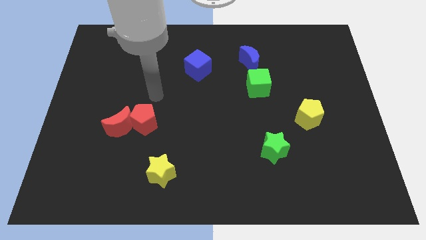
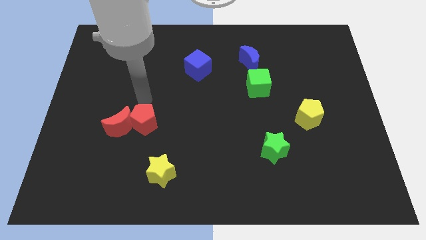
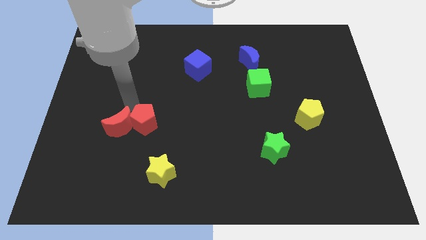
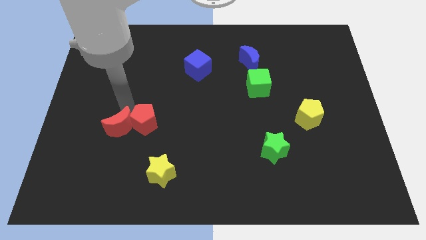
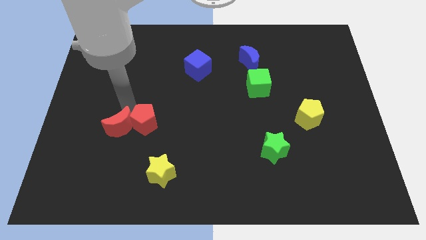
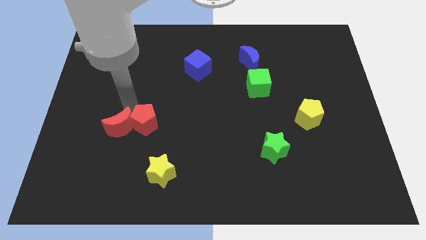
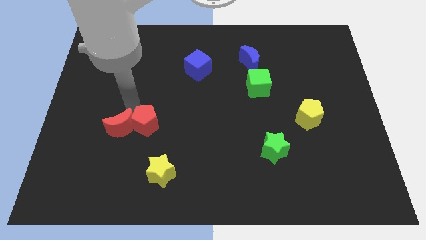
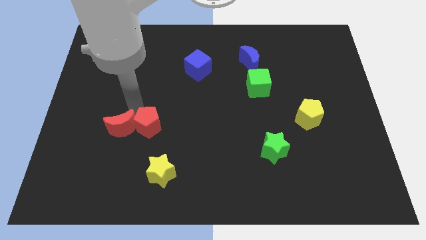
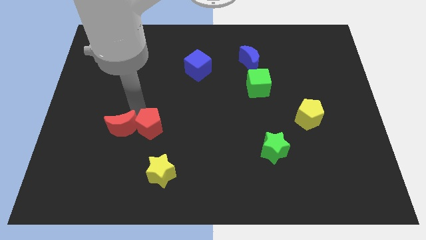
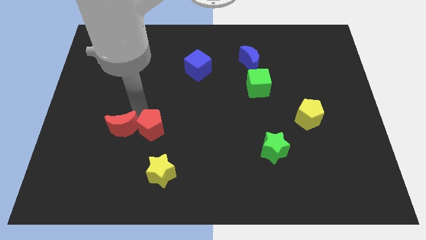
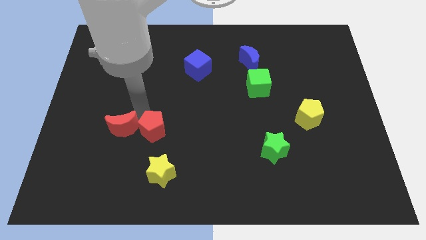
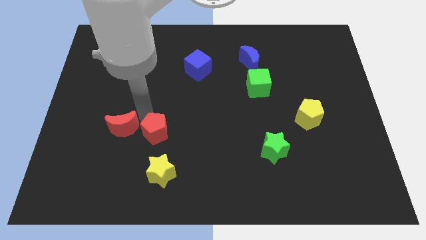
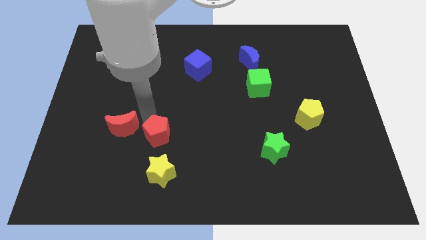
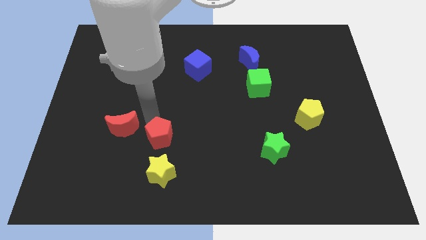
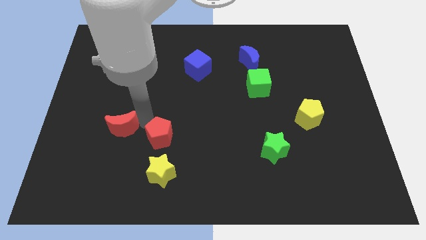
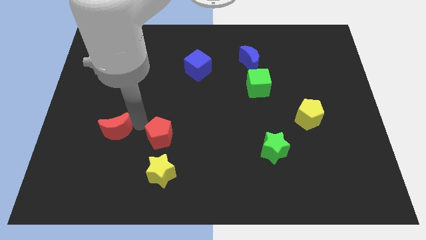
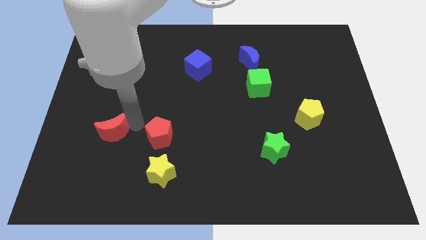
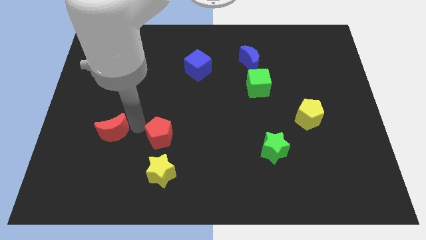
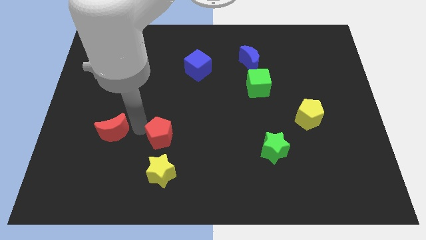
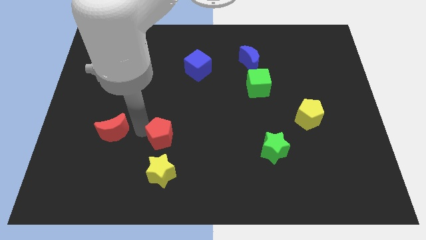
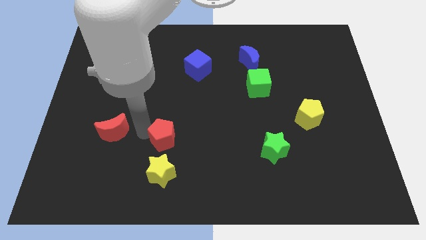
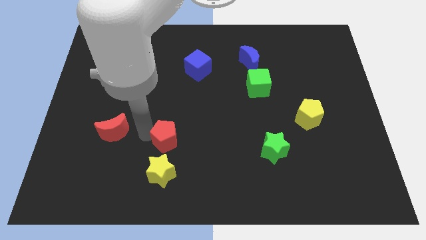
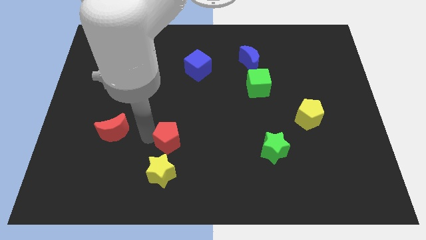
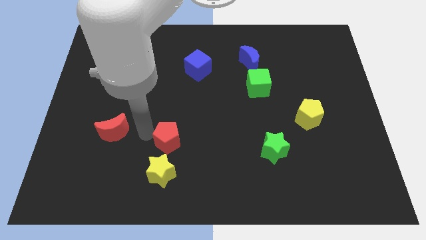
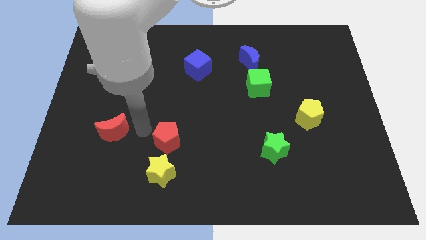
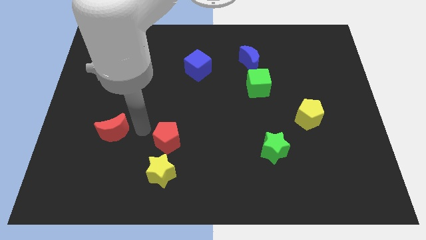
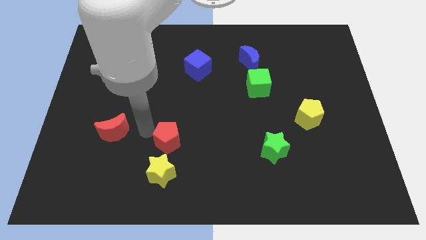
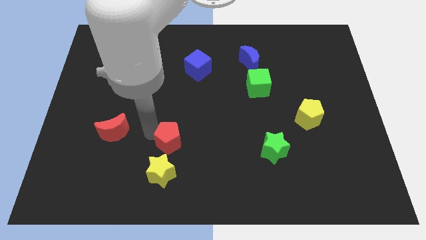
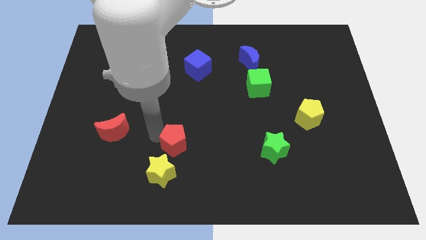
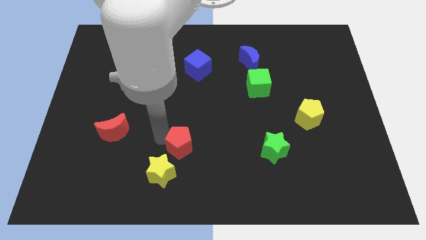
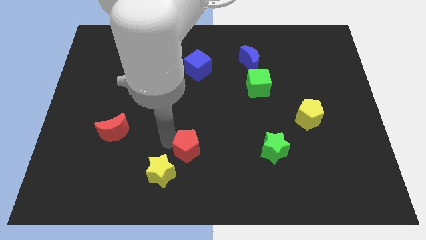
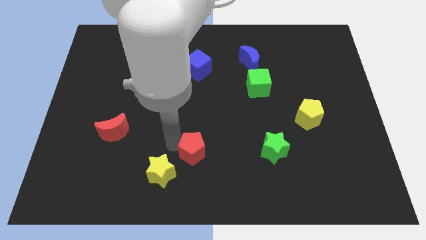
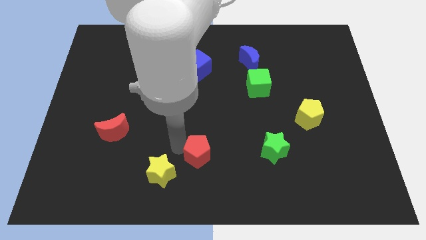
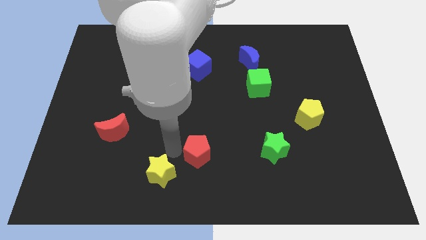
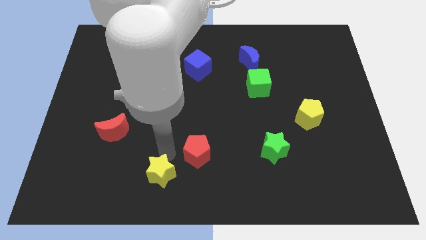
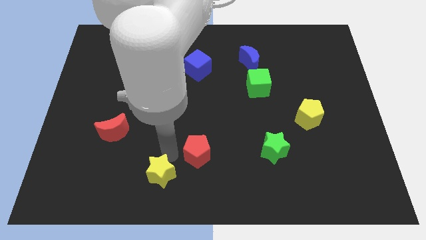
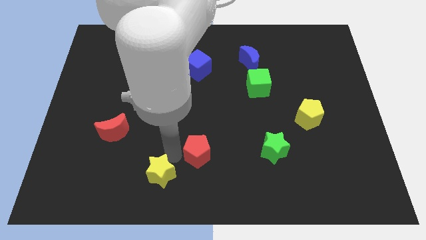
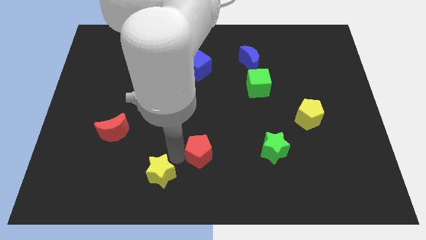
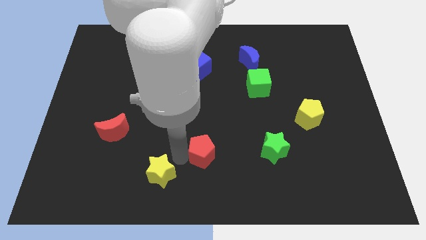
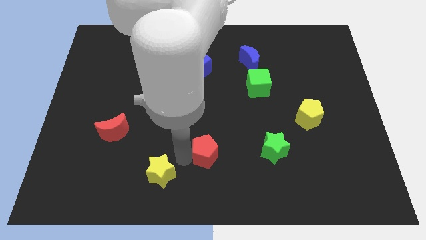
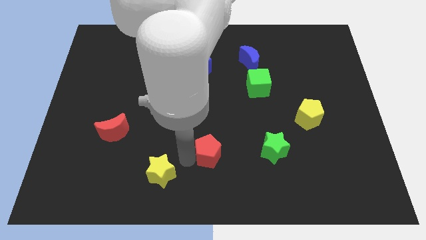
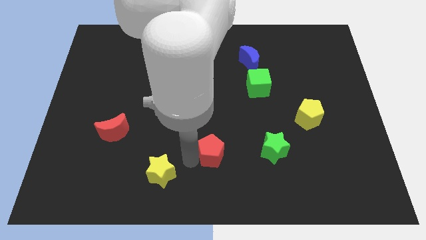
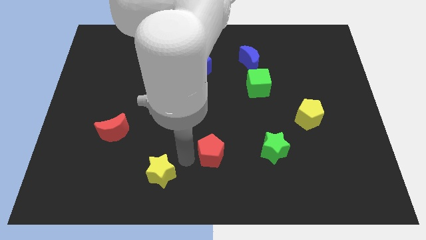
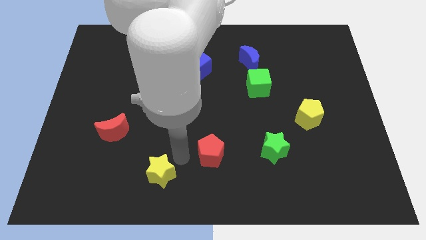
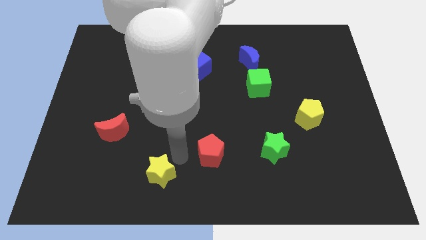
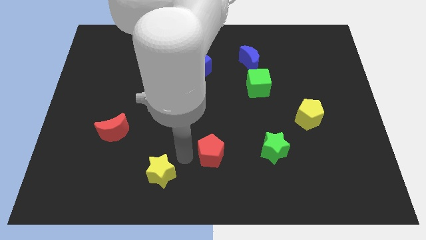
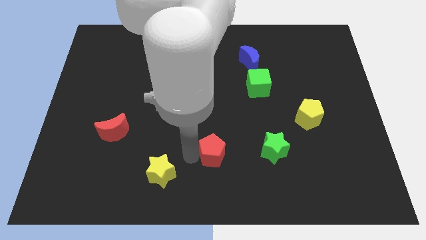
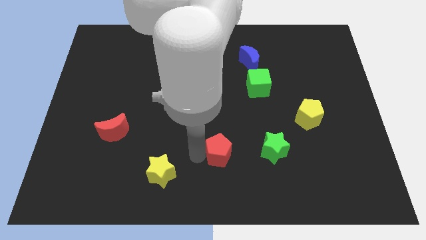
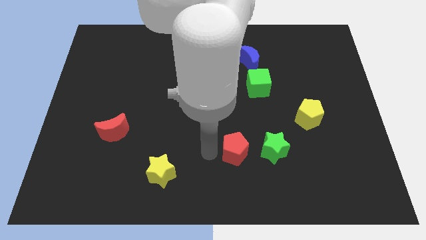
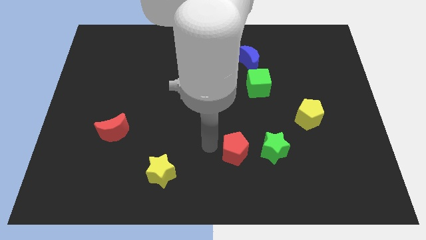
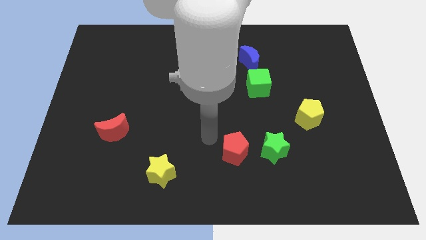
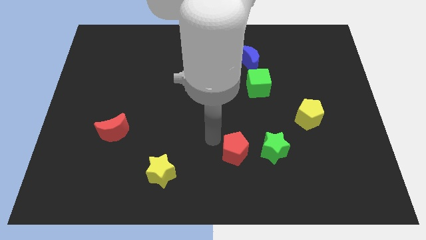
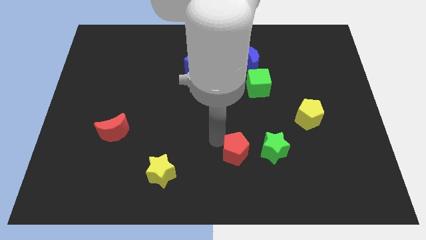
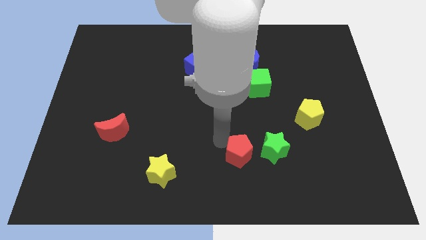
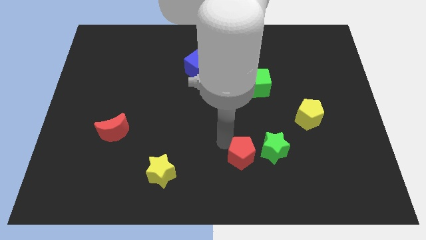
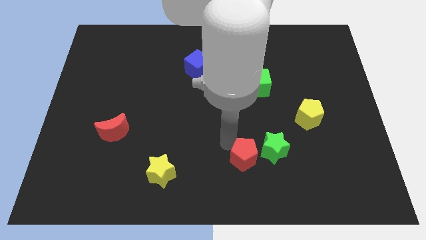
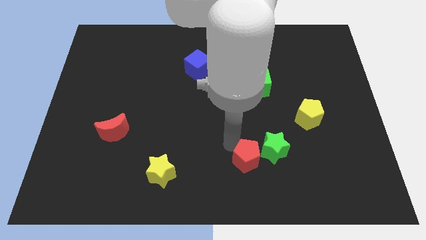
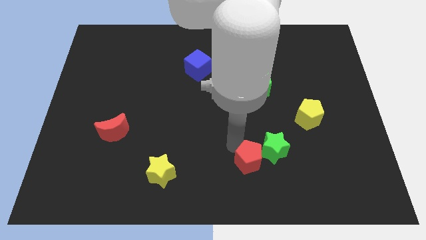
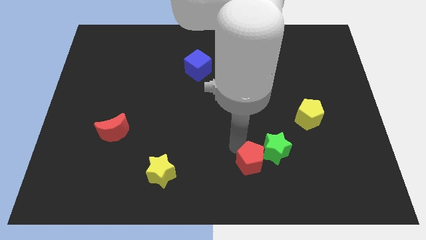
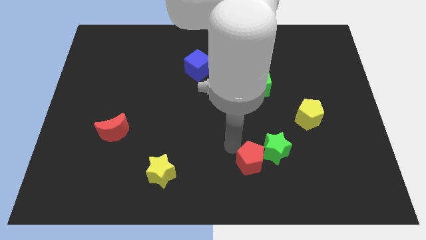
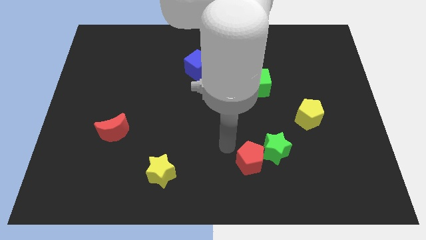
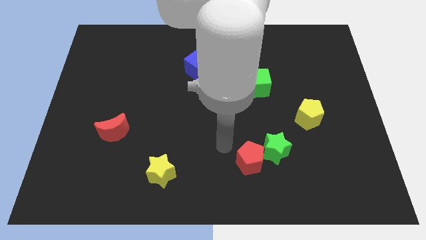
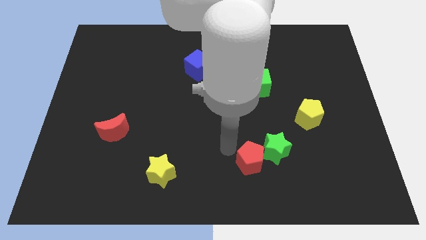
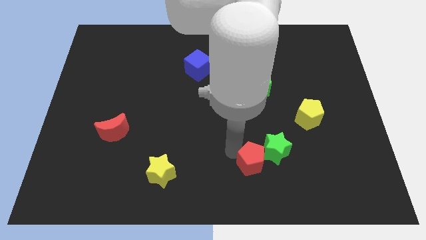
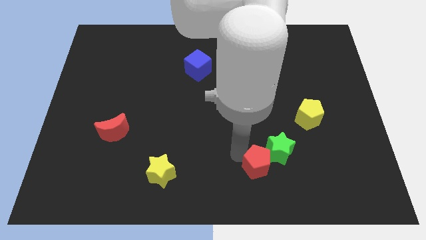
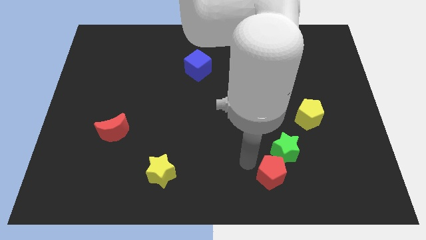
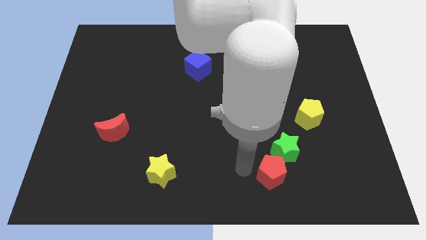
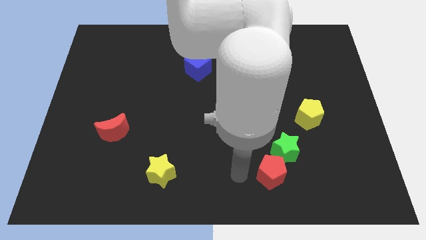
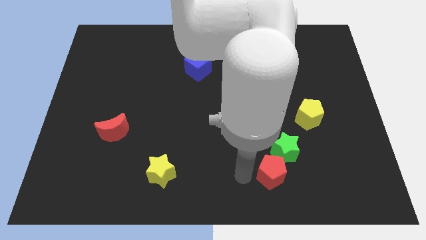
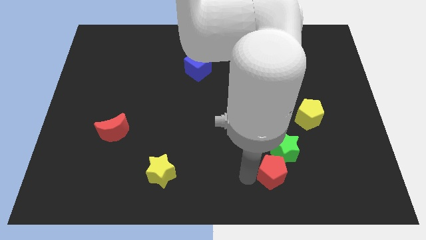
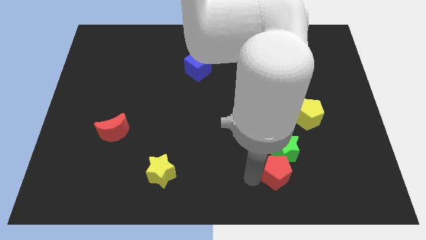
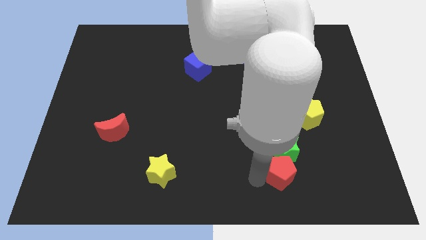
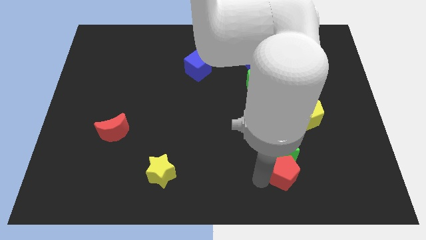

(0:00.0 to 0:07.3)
push the red pentagon to the bottom right of the green star

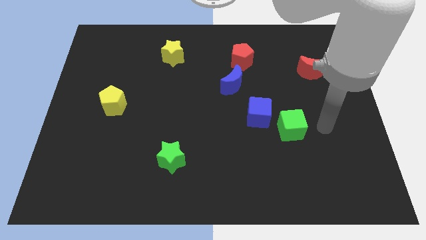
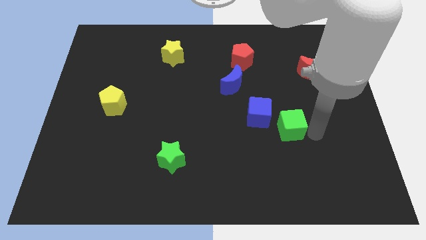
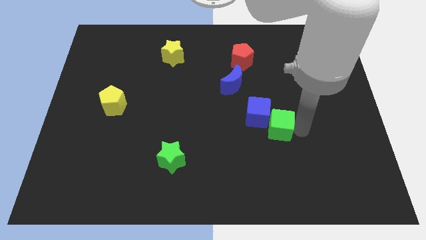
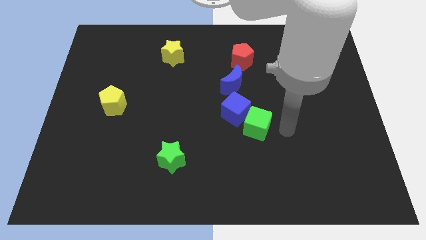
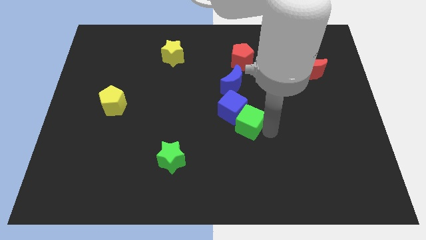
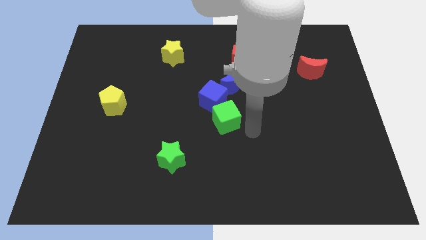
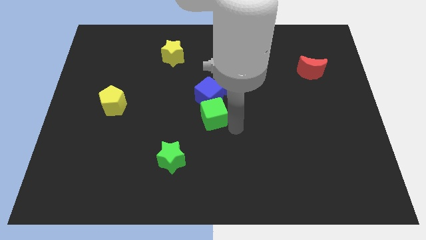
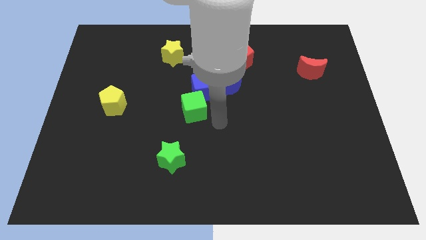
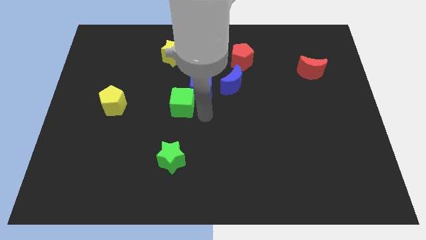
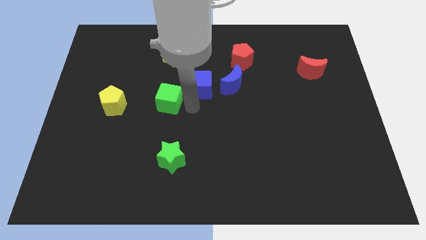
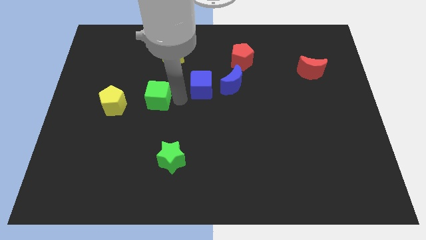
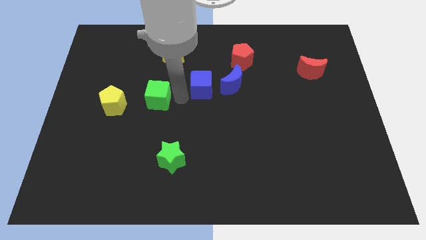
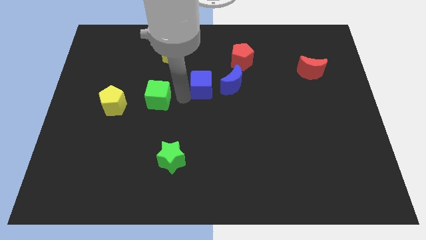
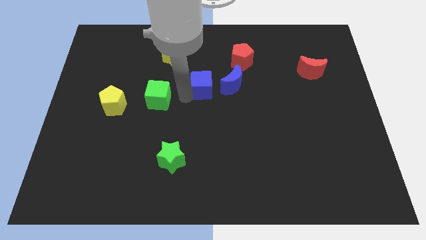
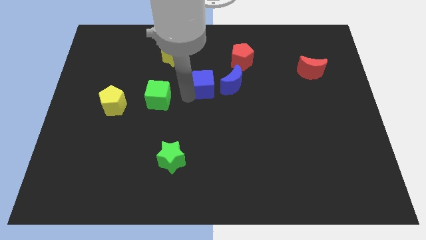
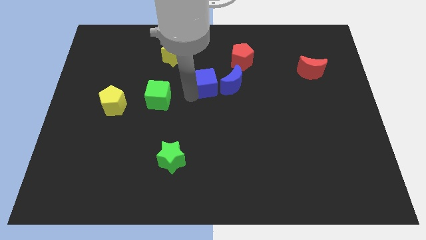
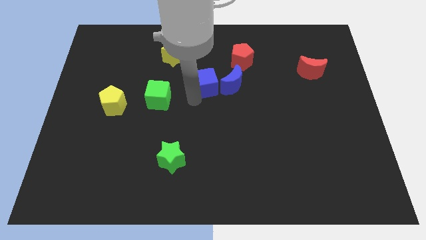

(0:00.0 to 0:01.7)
push the blue cube diagonally up and to the left of the blue moon
